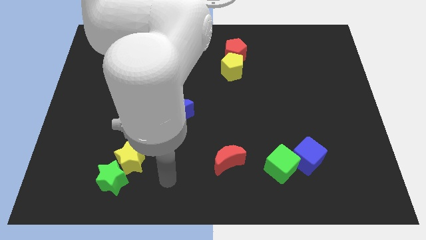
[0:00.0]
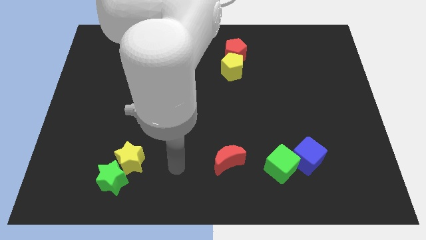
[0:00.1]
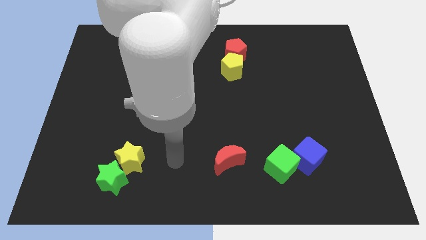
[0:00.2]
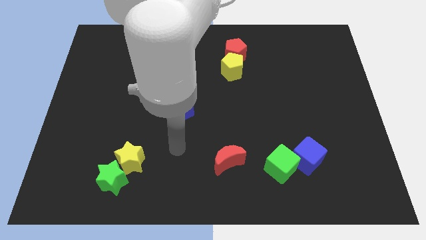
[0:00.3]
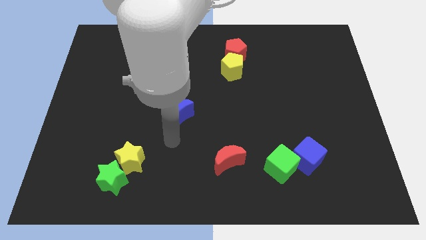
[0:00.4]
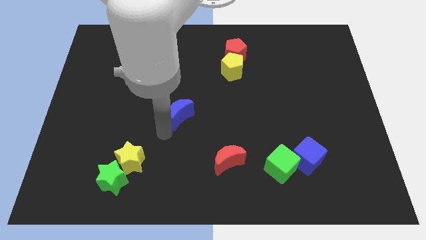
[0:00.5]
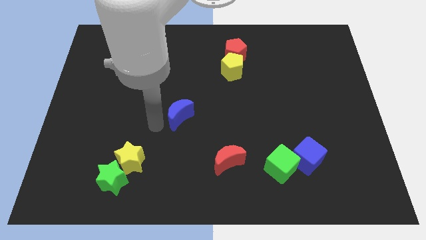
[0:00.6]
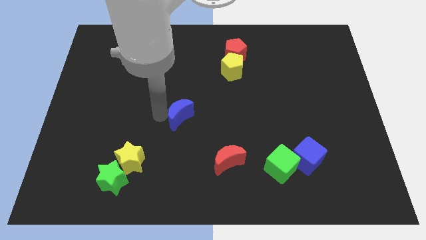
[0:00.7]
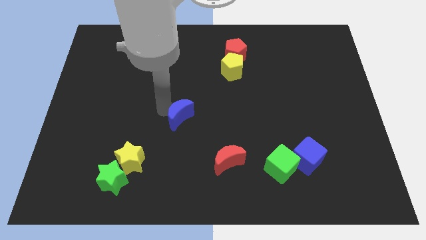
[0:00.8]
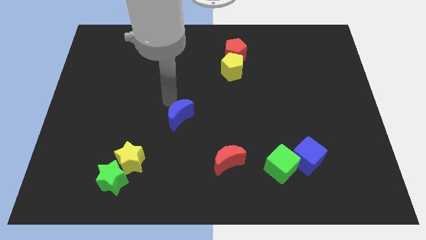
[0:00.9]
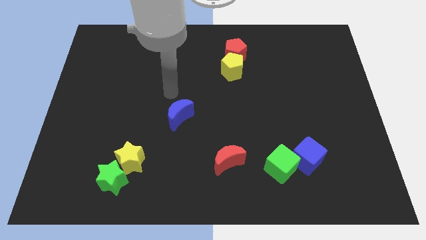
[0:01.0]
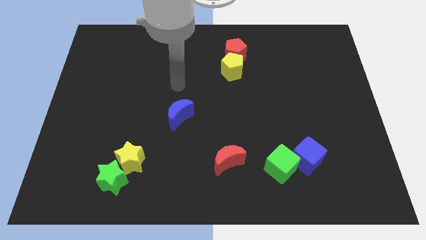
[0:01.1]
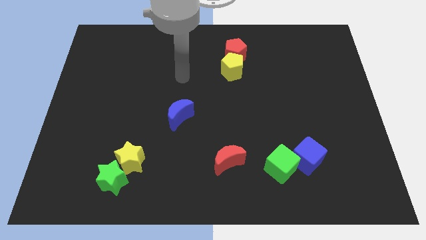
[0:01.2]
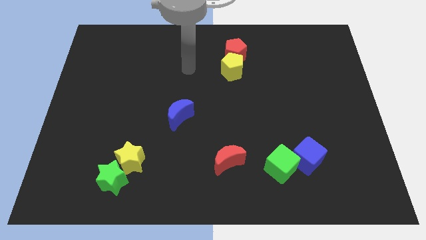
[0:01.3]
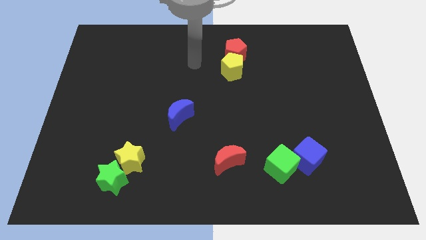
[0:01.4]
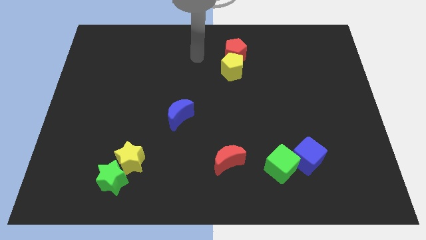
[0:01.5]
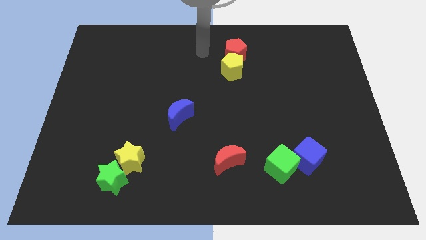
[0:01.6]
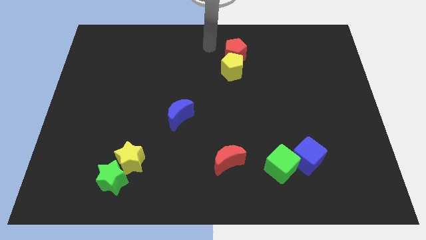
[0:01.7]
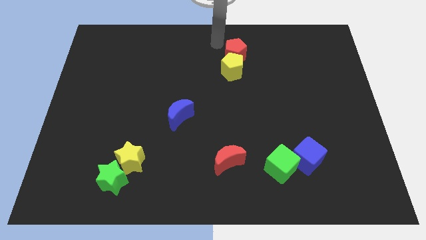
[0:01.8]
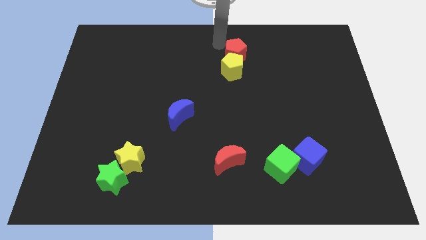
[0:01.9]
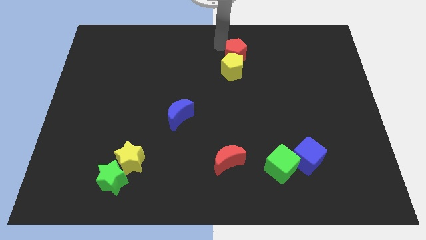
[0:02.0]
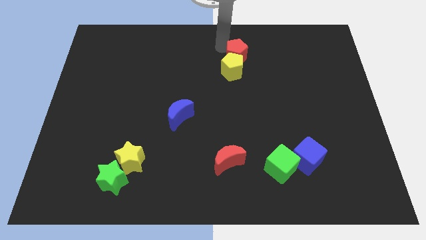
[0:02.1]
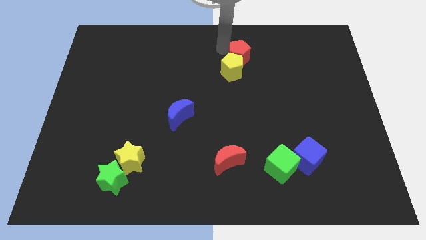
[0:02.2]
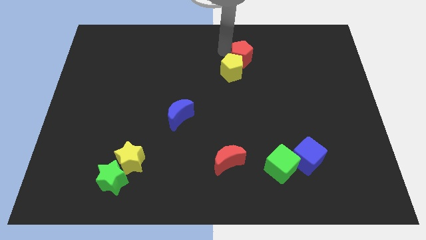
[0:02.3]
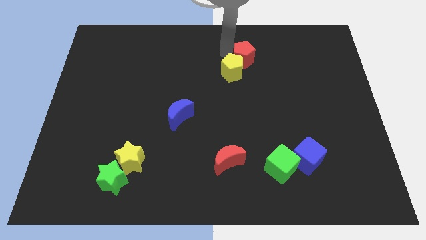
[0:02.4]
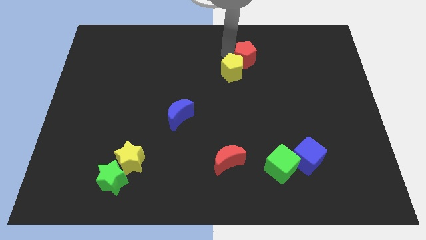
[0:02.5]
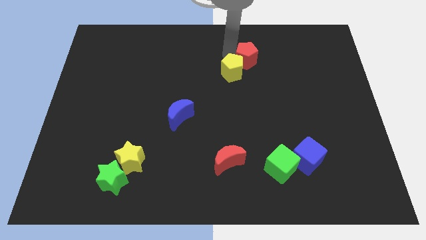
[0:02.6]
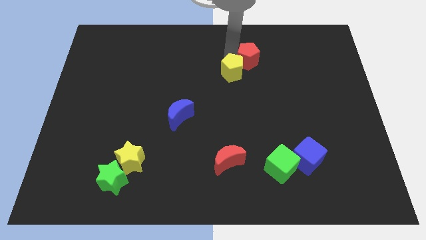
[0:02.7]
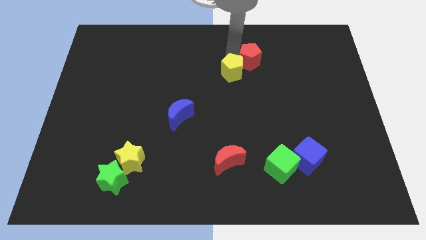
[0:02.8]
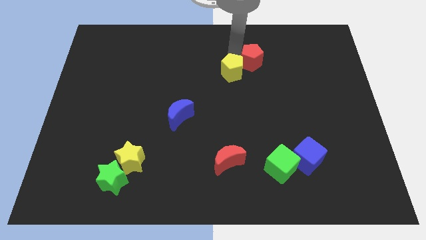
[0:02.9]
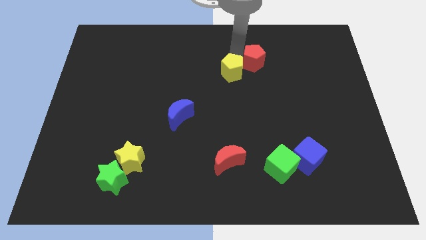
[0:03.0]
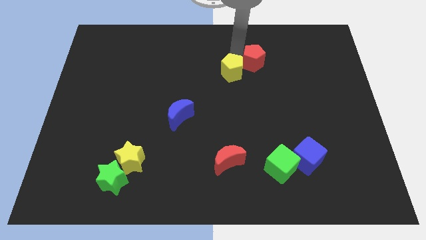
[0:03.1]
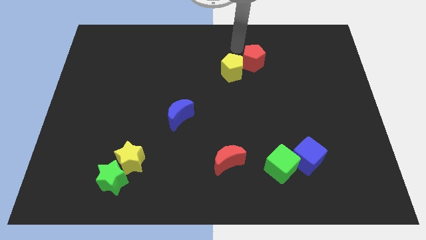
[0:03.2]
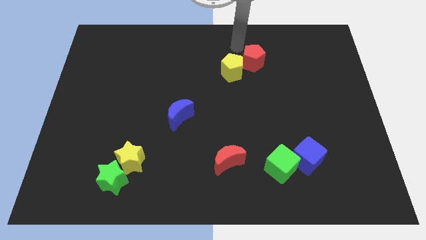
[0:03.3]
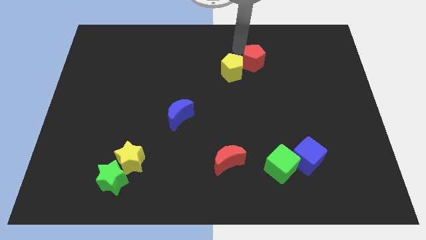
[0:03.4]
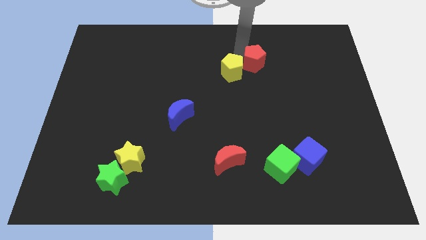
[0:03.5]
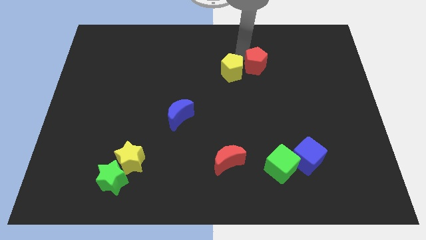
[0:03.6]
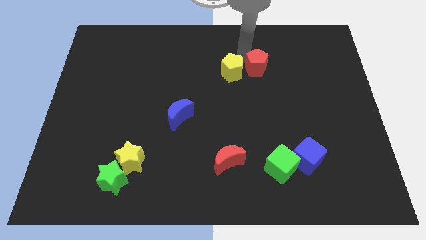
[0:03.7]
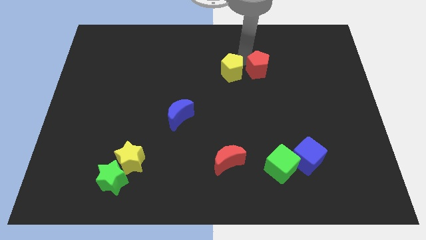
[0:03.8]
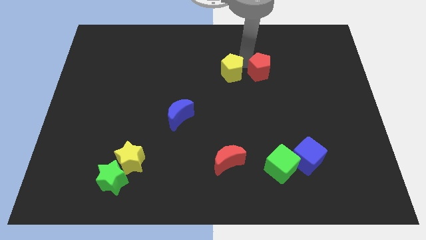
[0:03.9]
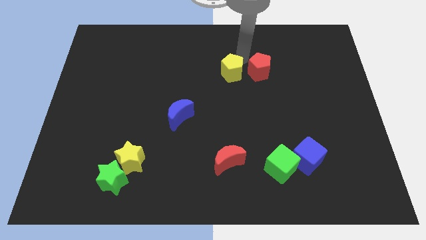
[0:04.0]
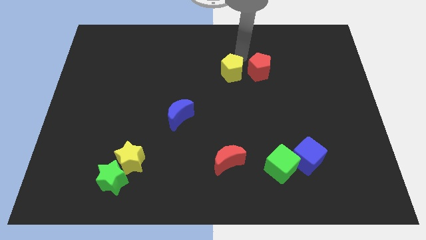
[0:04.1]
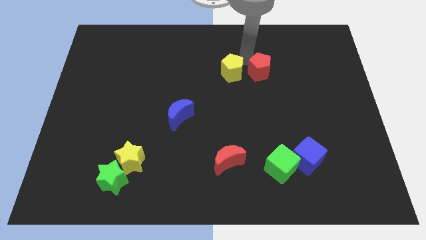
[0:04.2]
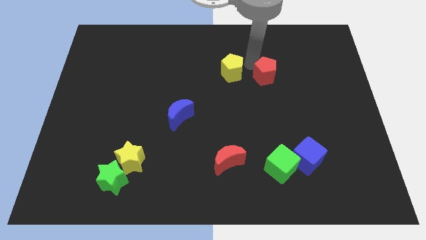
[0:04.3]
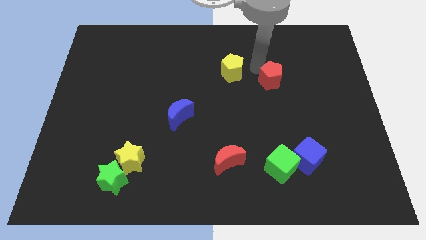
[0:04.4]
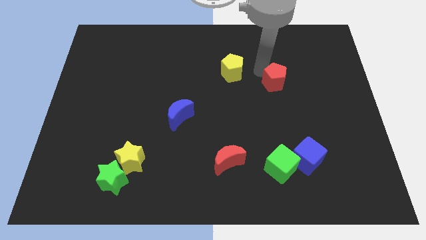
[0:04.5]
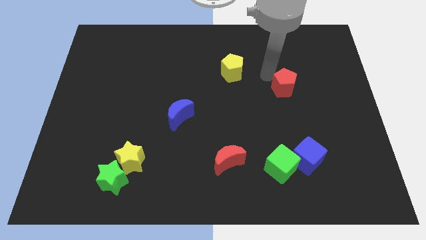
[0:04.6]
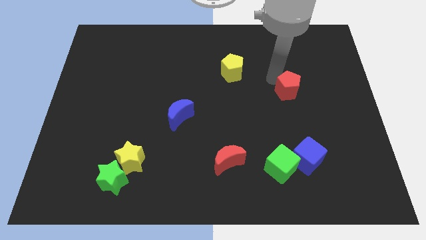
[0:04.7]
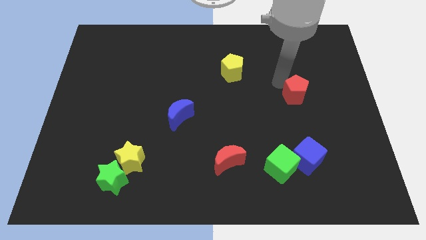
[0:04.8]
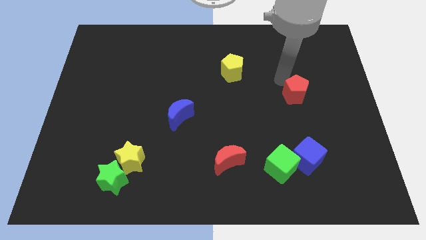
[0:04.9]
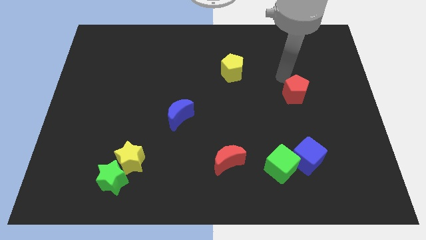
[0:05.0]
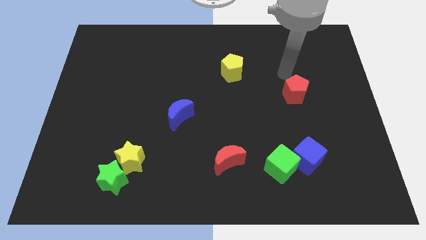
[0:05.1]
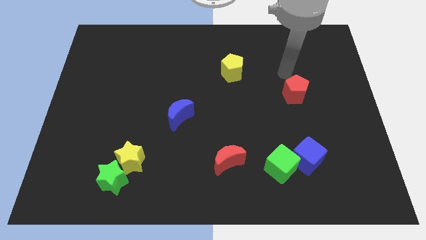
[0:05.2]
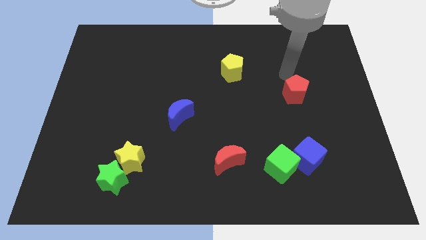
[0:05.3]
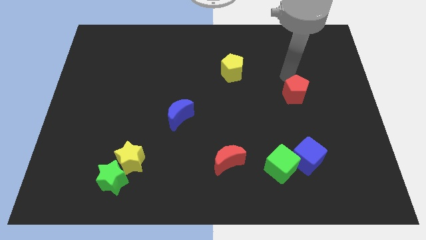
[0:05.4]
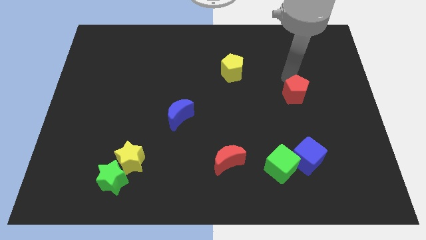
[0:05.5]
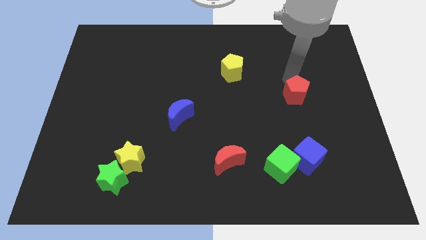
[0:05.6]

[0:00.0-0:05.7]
move the red pentagon down and then to the right

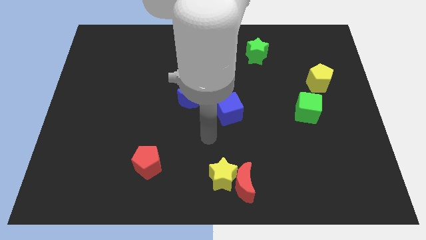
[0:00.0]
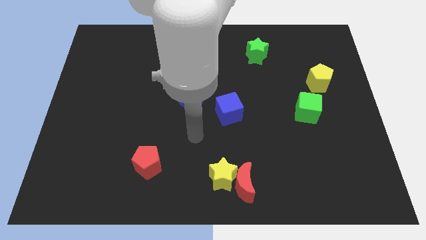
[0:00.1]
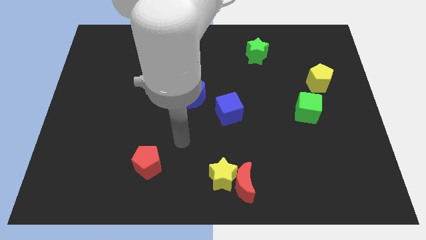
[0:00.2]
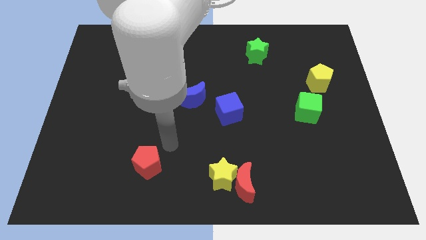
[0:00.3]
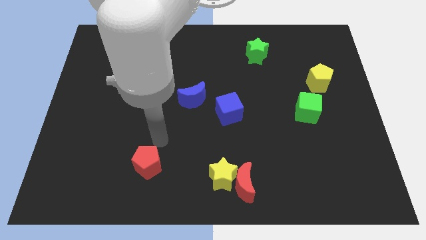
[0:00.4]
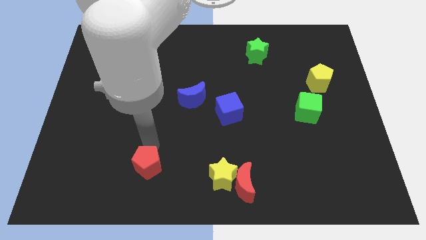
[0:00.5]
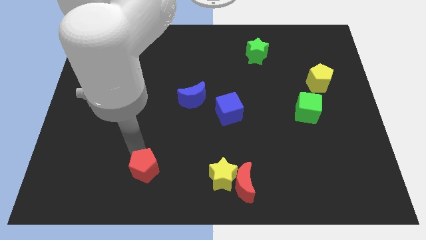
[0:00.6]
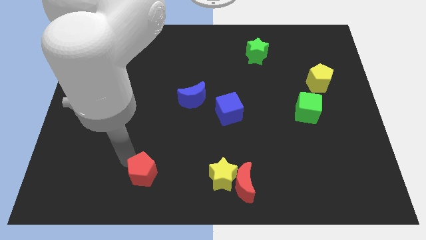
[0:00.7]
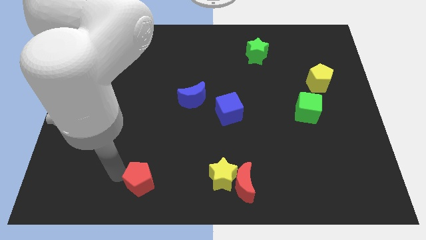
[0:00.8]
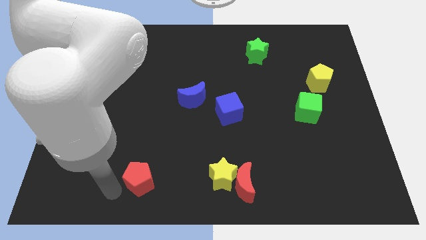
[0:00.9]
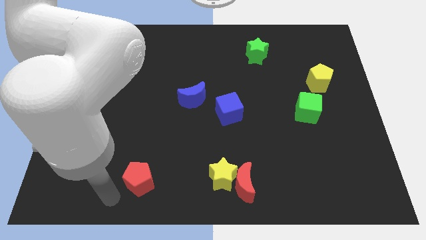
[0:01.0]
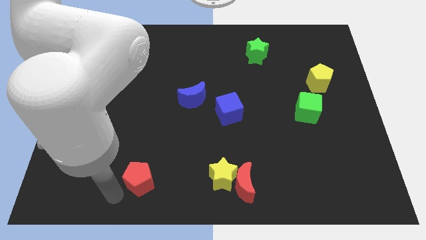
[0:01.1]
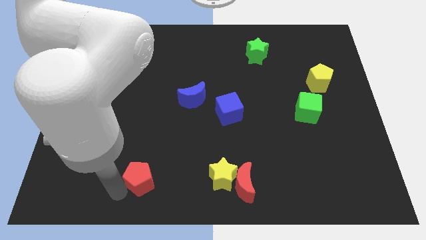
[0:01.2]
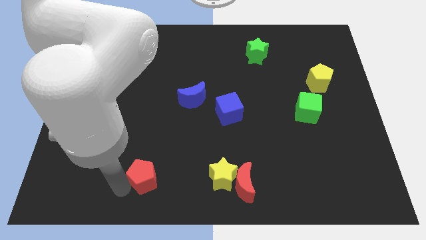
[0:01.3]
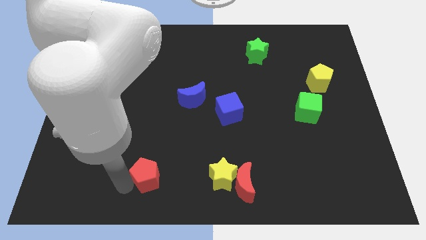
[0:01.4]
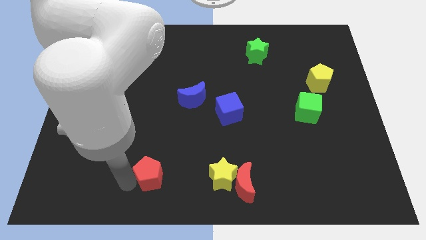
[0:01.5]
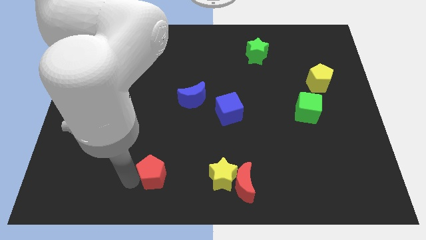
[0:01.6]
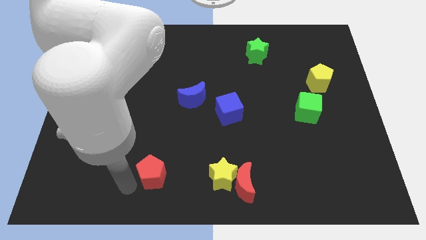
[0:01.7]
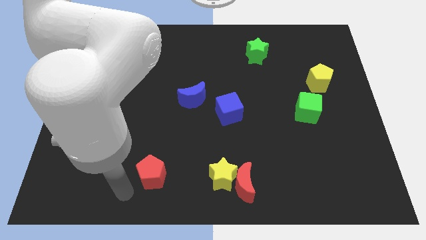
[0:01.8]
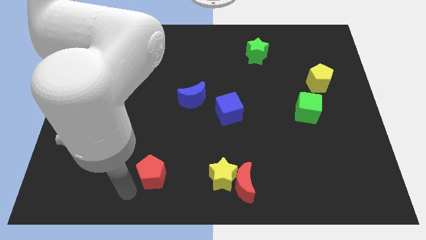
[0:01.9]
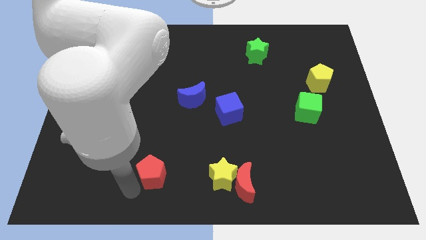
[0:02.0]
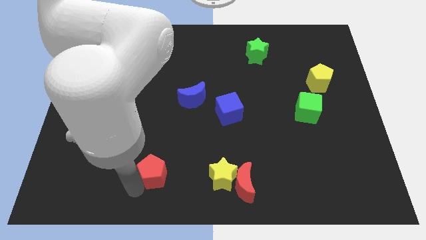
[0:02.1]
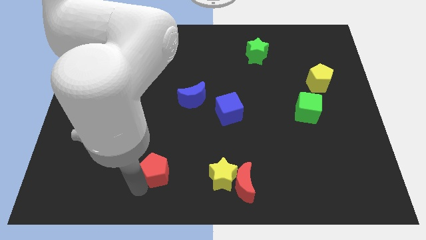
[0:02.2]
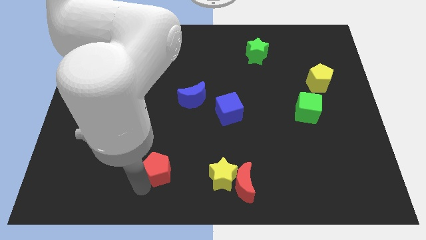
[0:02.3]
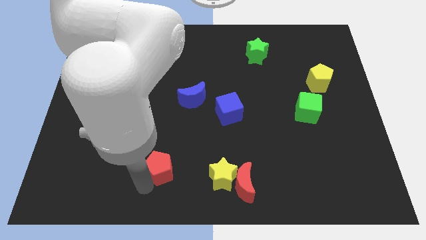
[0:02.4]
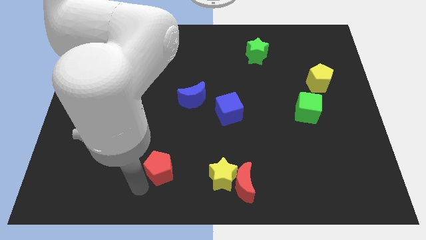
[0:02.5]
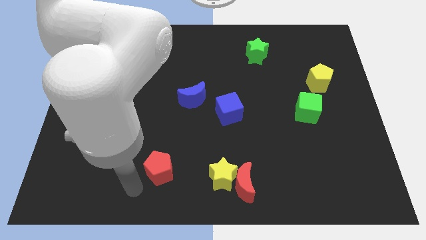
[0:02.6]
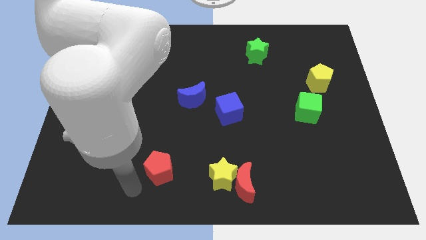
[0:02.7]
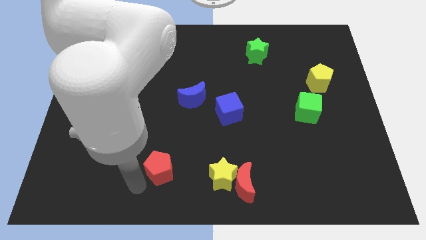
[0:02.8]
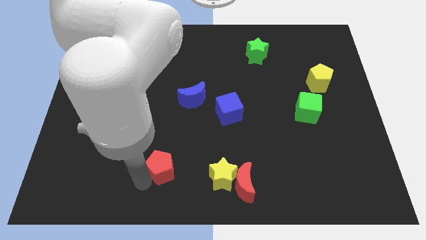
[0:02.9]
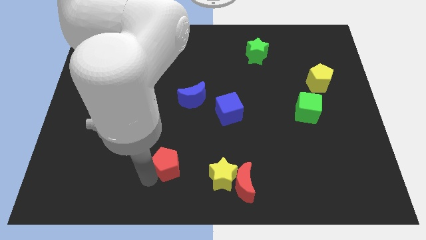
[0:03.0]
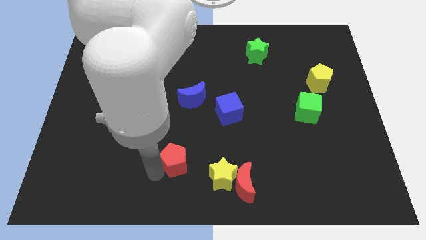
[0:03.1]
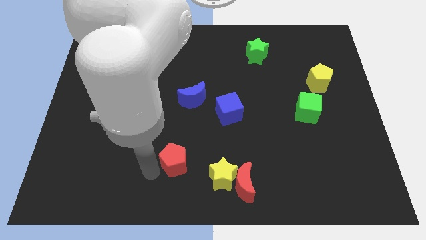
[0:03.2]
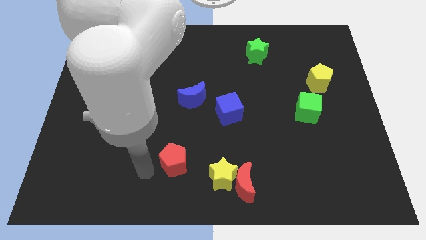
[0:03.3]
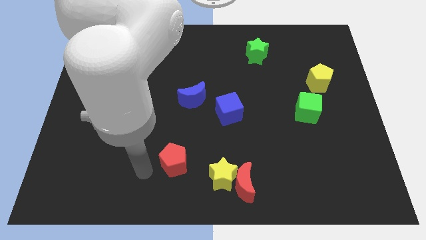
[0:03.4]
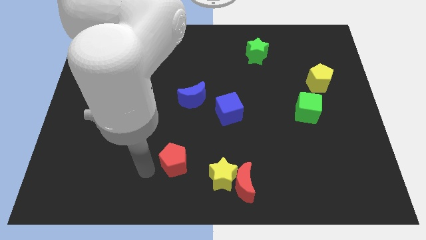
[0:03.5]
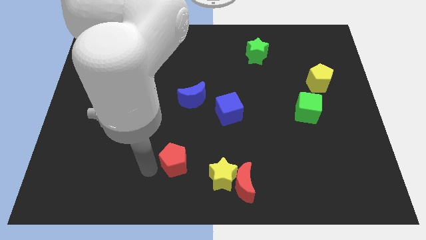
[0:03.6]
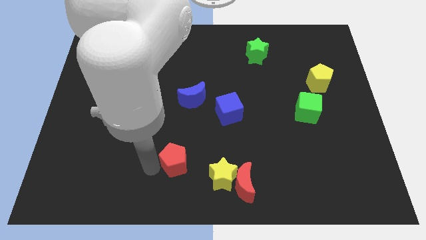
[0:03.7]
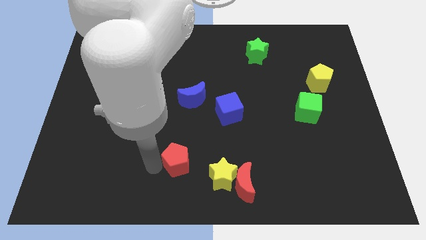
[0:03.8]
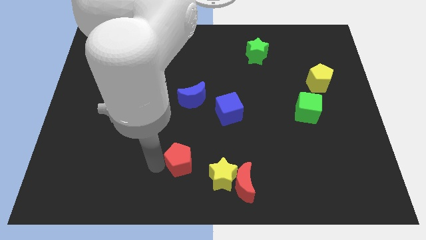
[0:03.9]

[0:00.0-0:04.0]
push the red pentagon to the right a little
